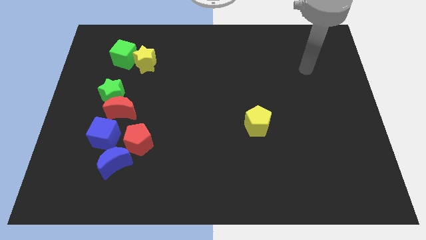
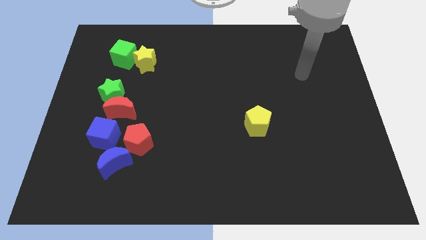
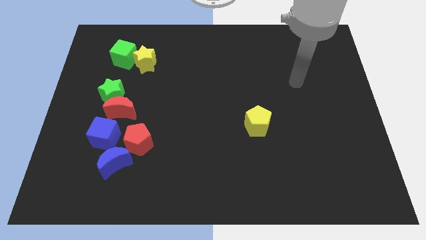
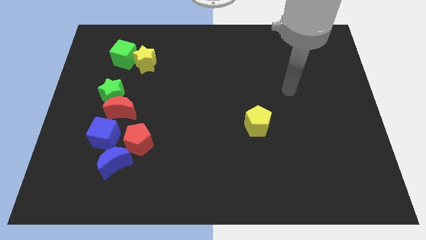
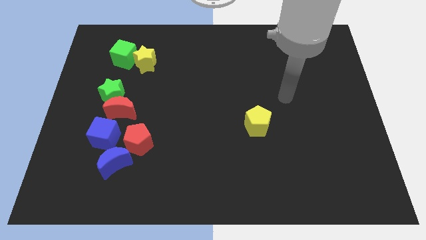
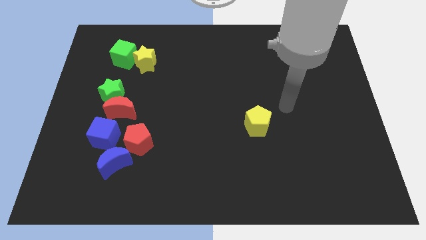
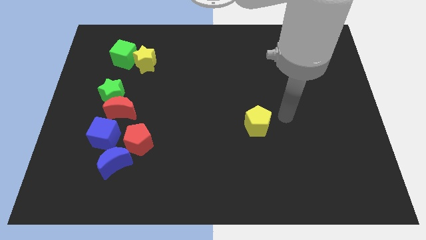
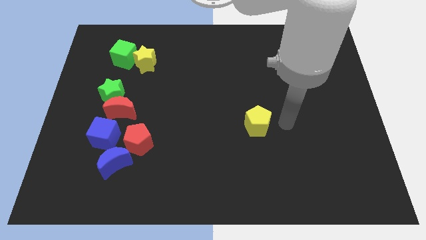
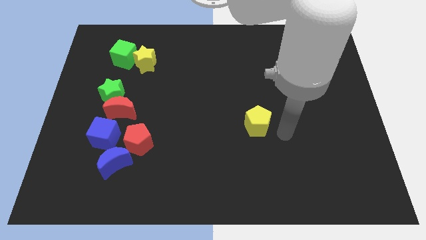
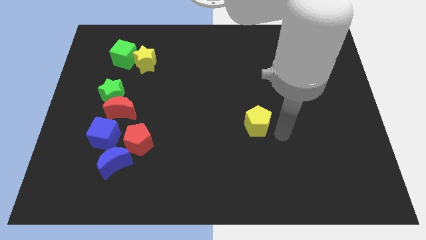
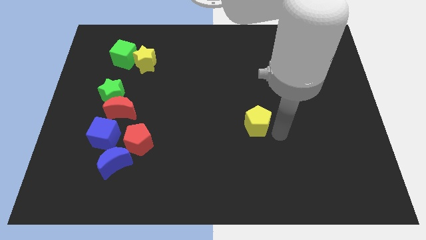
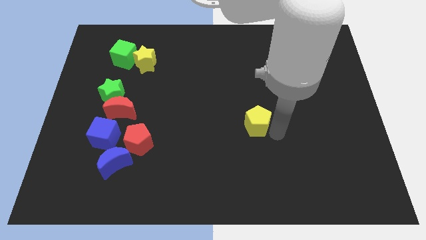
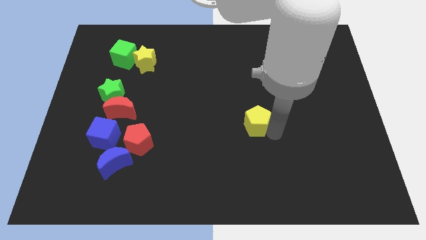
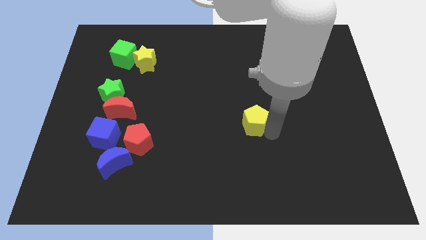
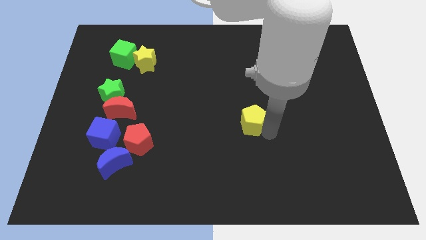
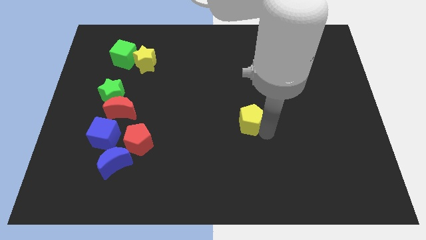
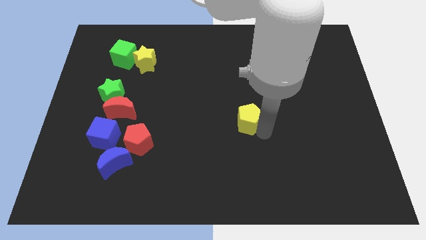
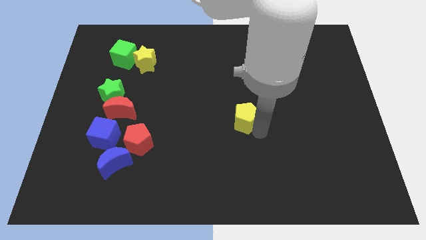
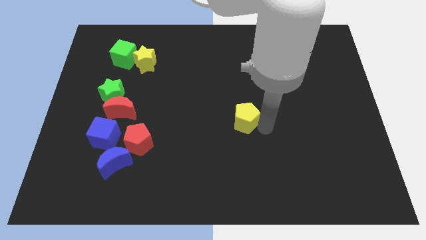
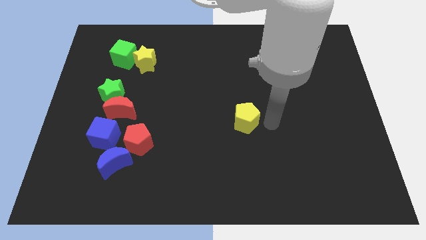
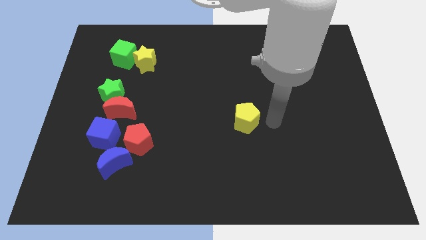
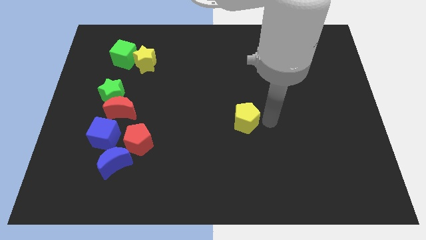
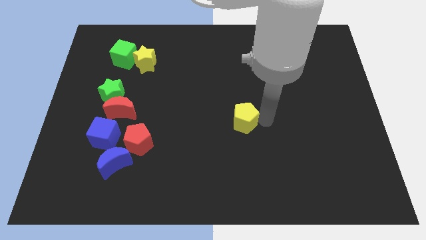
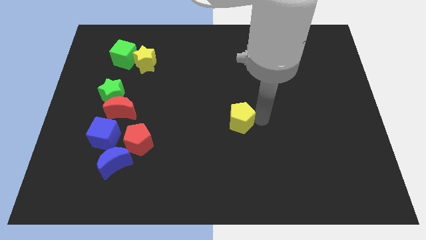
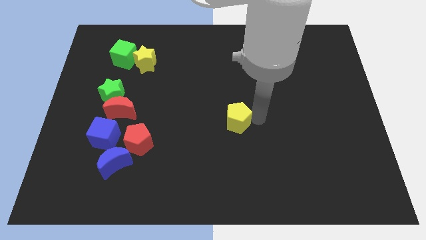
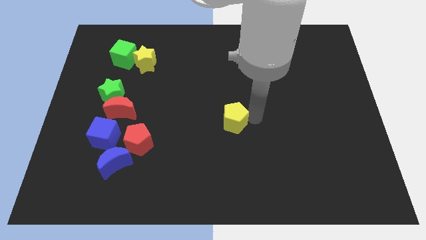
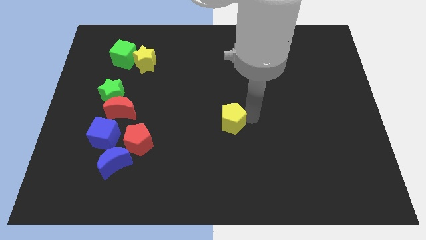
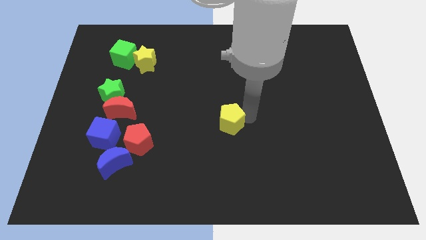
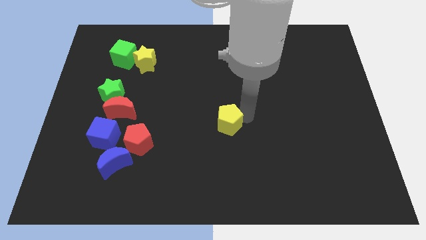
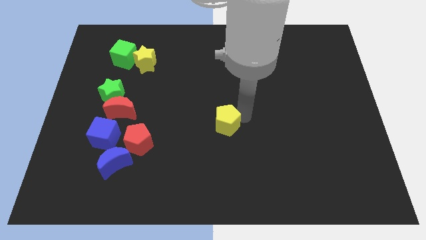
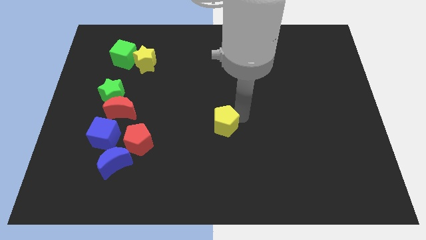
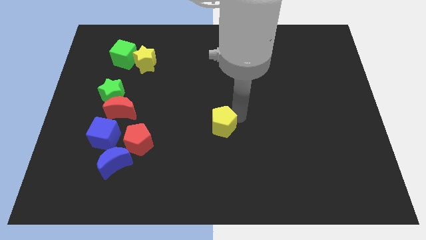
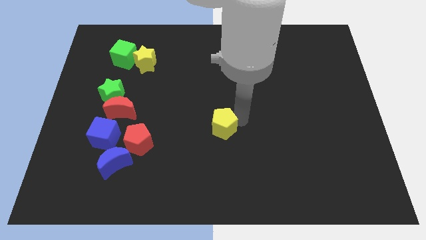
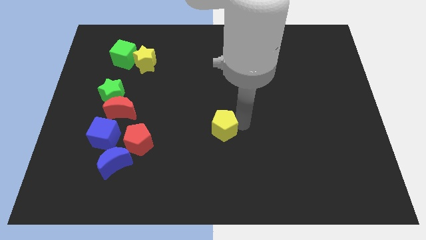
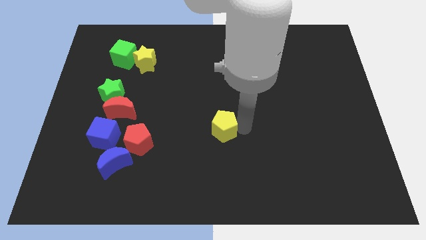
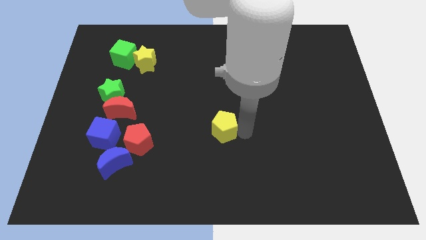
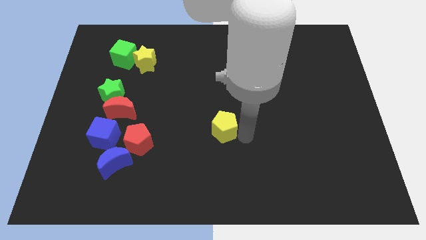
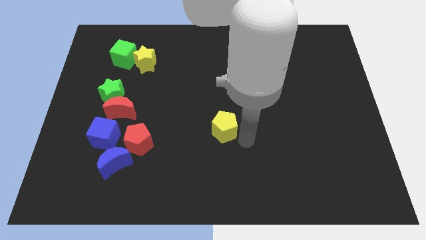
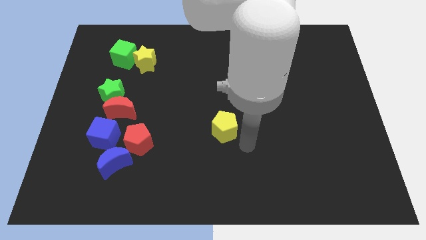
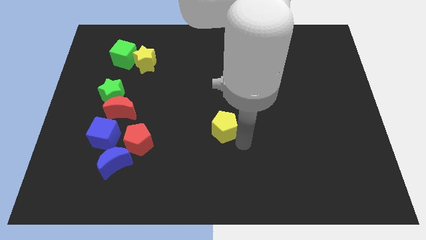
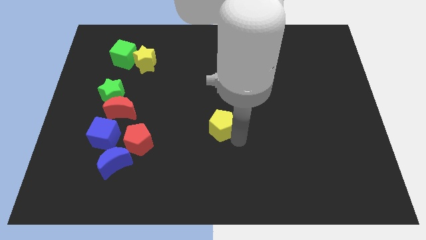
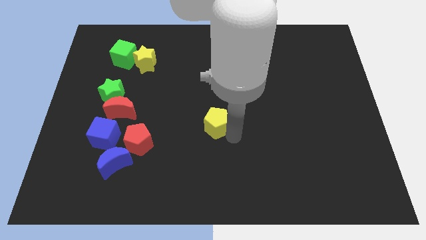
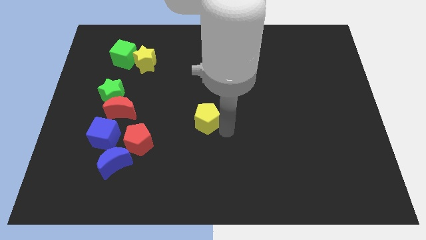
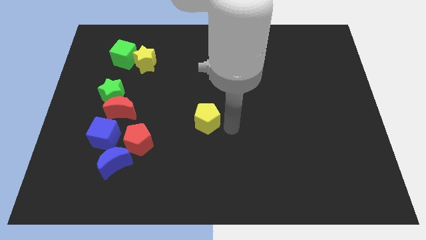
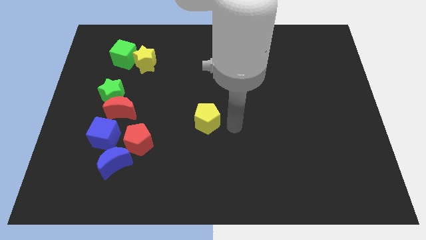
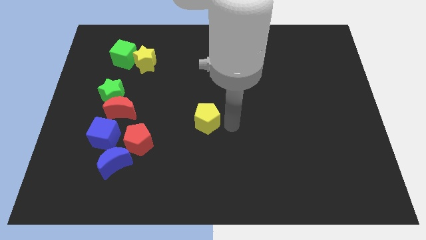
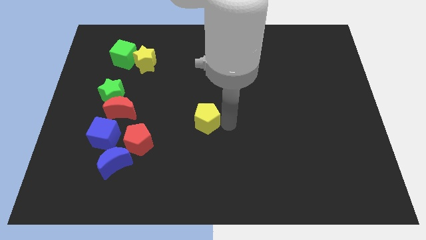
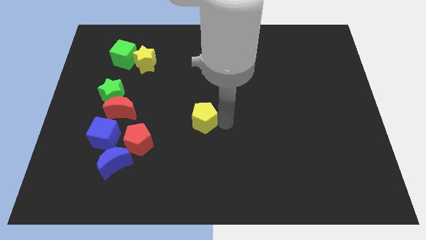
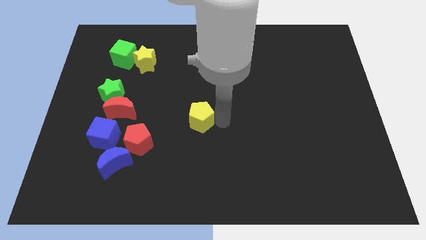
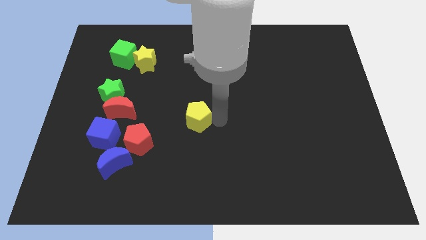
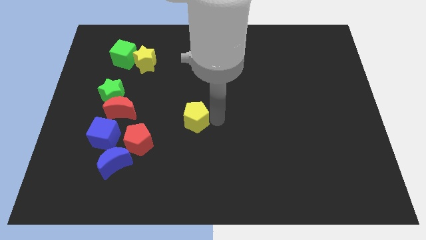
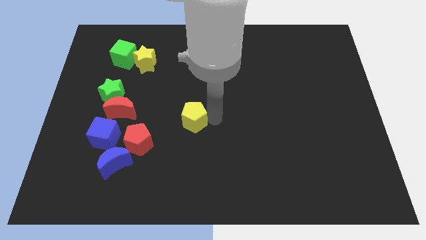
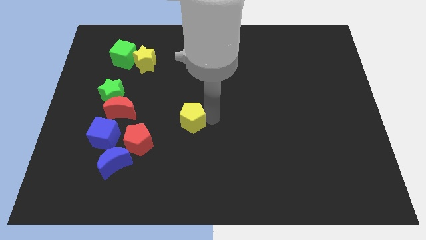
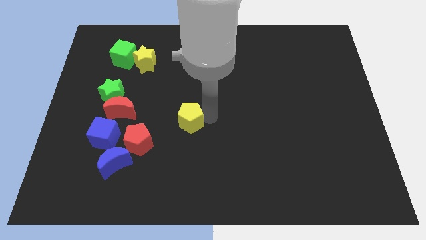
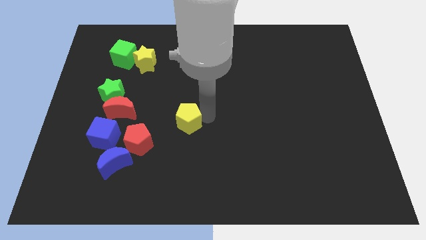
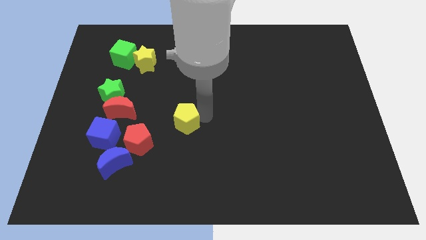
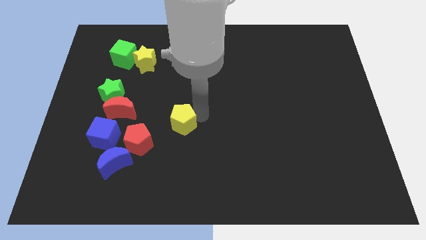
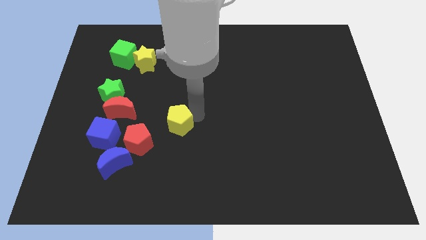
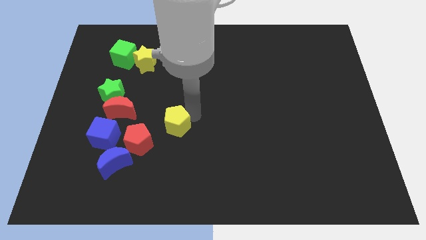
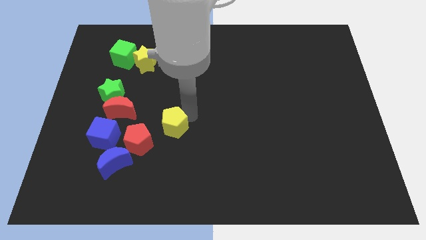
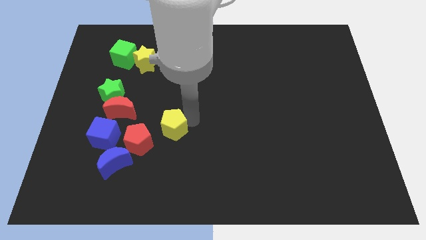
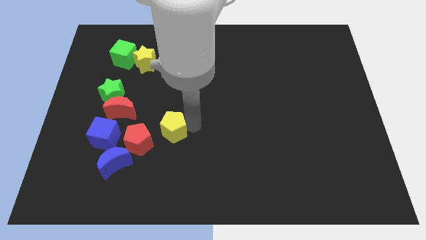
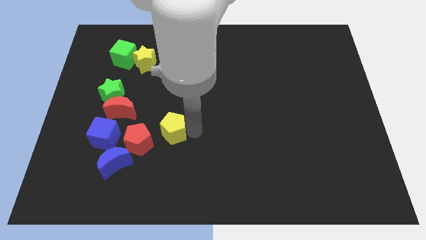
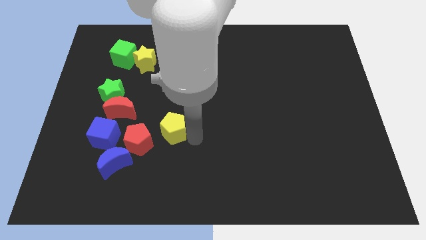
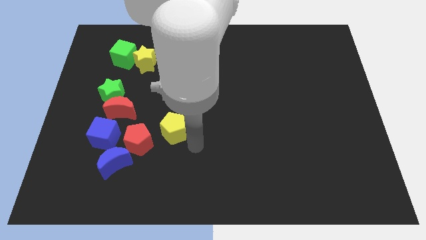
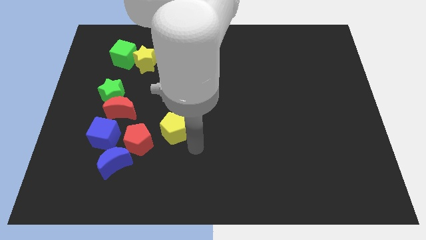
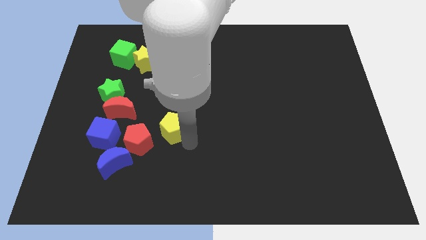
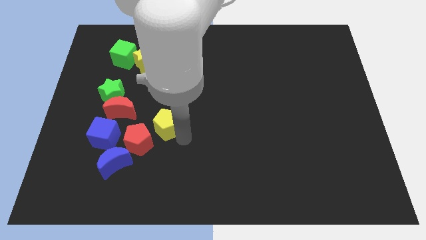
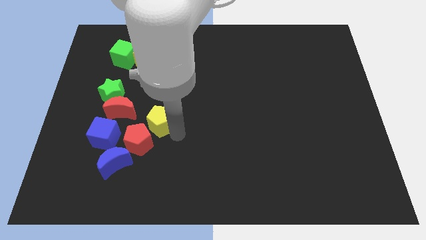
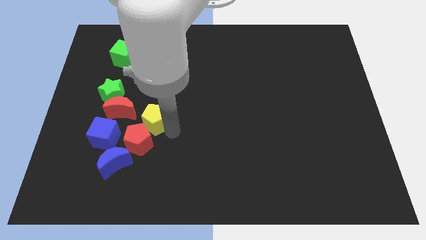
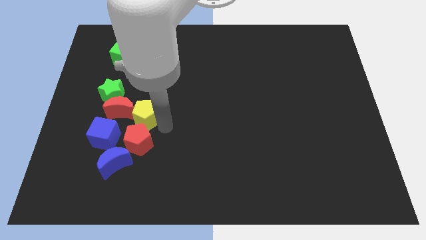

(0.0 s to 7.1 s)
put the yellow pentagon towards the red moon

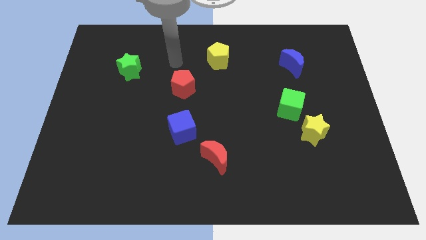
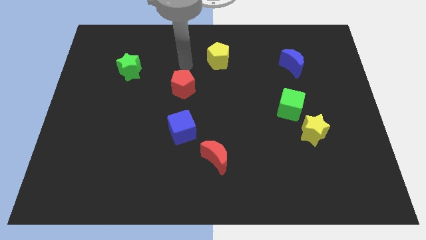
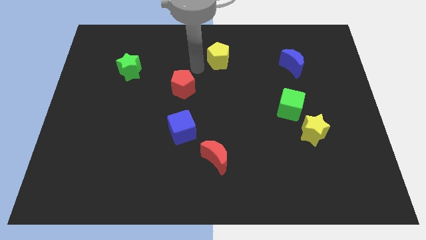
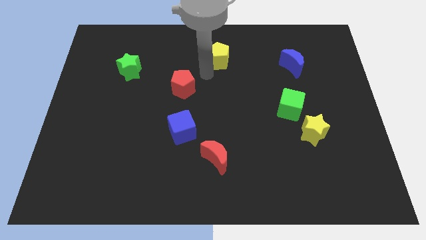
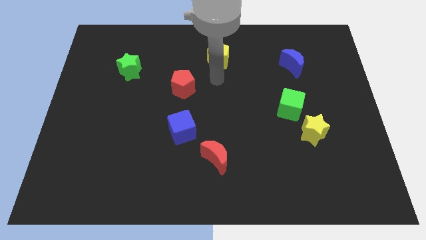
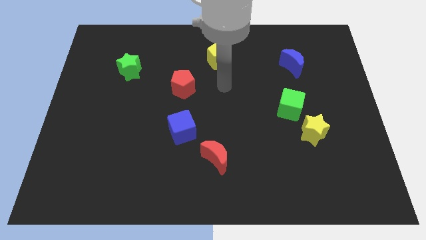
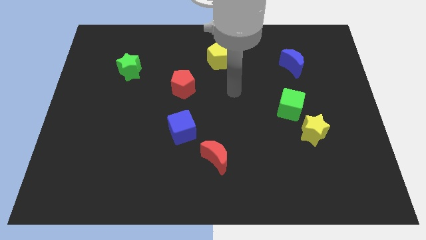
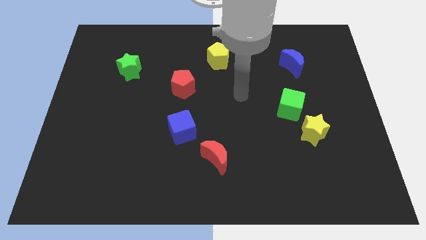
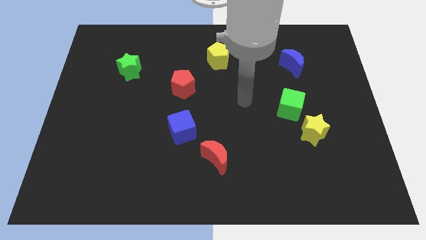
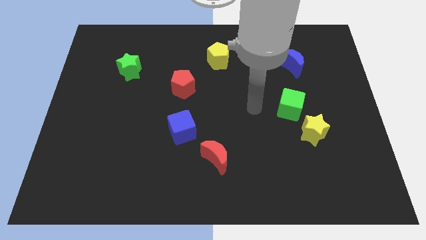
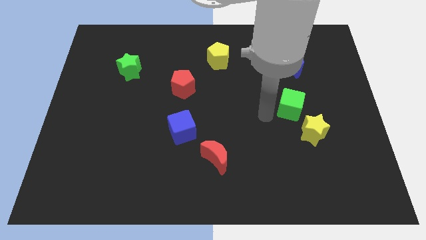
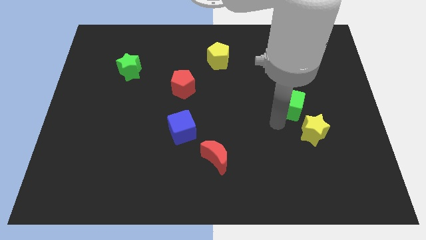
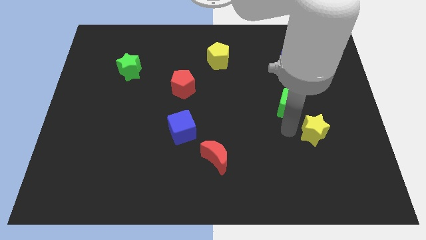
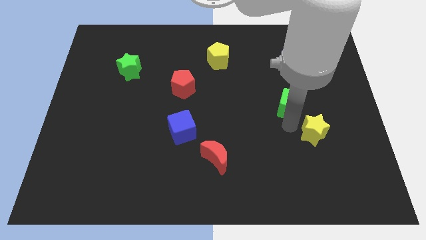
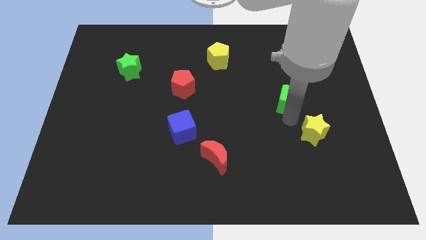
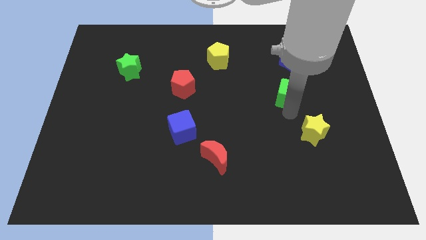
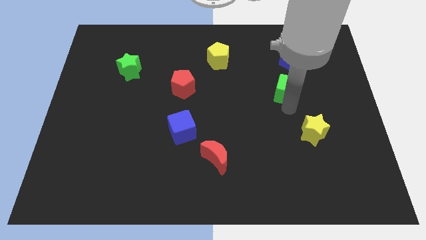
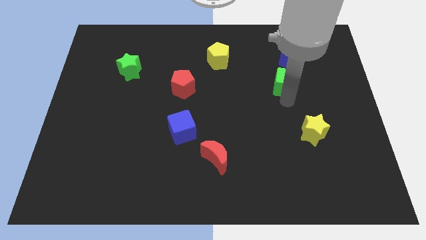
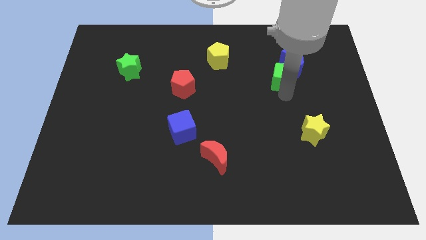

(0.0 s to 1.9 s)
move the green cube to the blue moon
